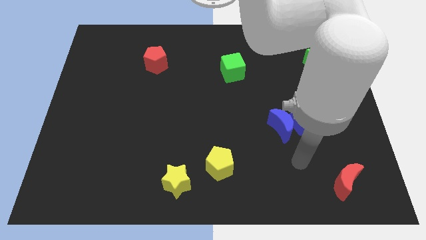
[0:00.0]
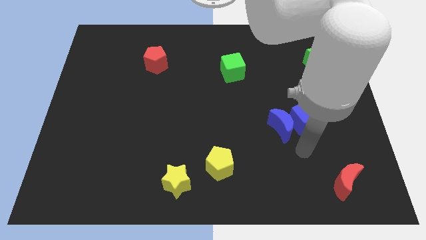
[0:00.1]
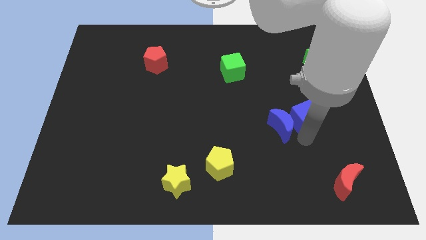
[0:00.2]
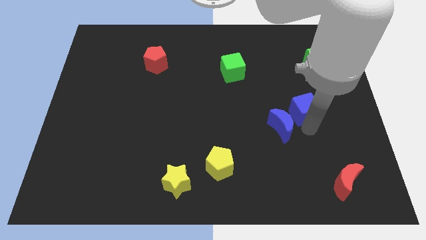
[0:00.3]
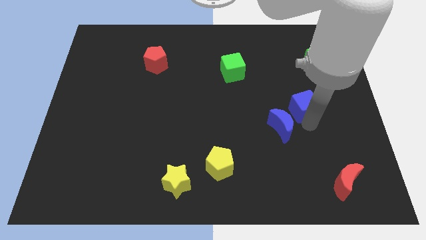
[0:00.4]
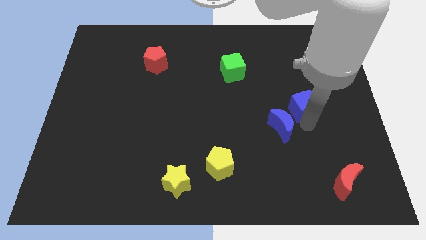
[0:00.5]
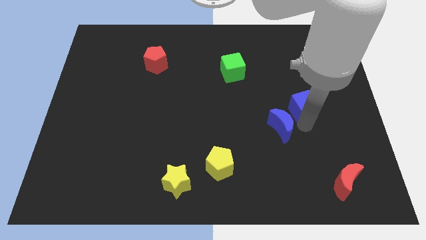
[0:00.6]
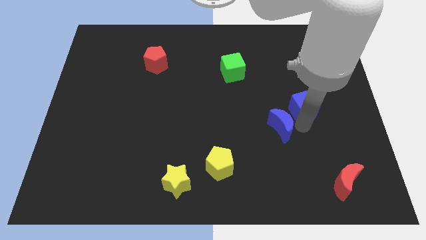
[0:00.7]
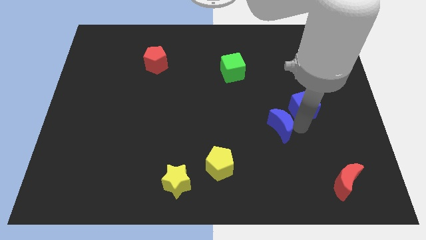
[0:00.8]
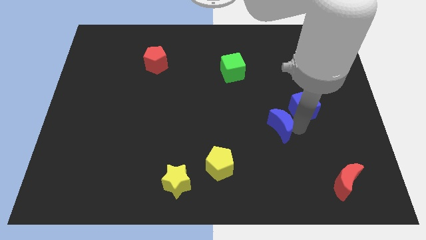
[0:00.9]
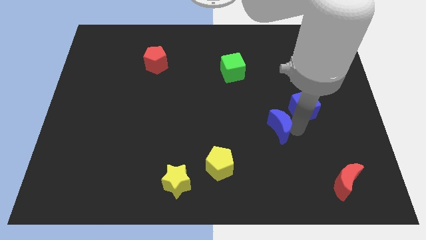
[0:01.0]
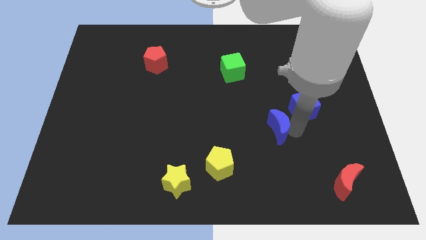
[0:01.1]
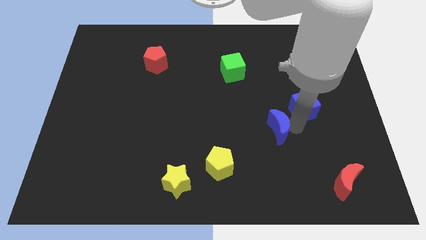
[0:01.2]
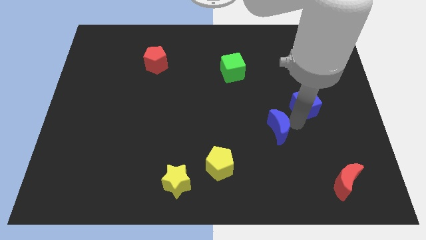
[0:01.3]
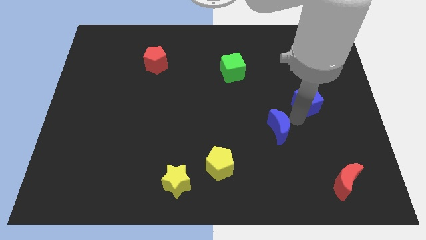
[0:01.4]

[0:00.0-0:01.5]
pull the blue moon apart from the blue cube

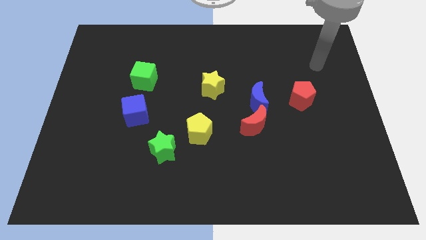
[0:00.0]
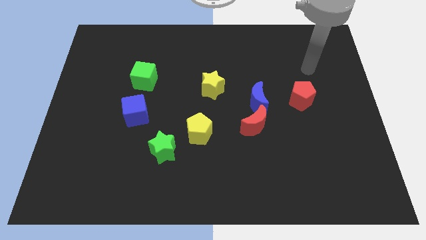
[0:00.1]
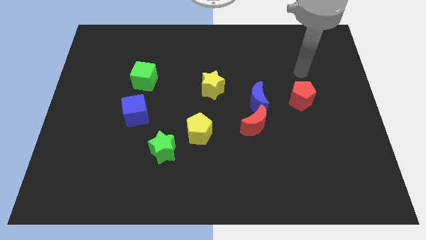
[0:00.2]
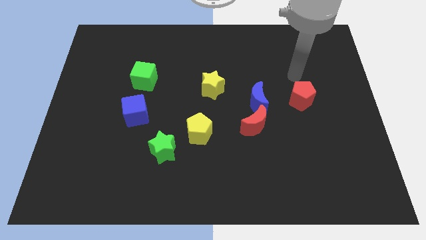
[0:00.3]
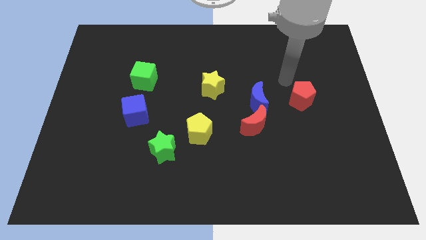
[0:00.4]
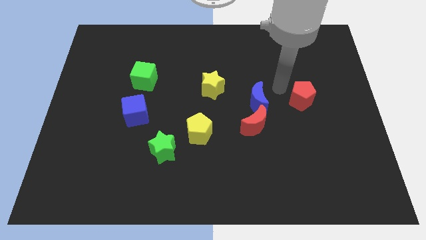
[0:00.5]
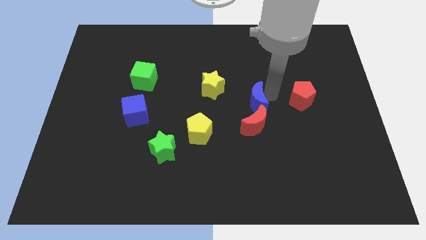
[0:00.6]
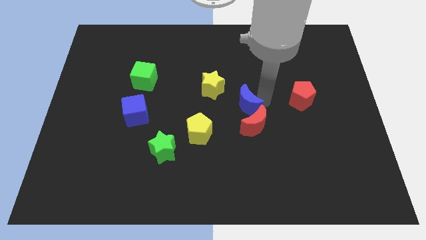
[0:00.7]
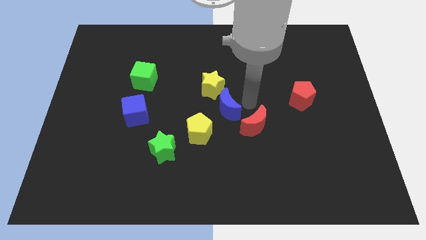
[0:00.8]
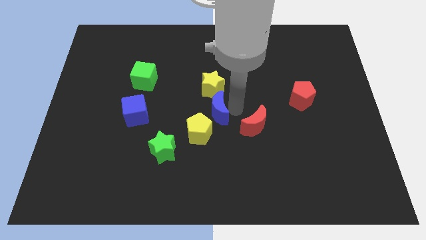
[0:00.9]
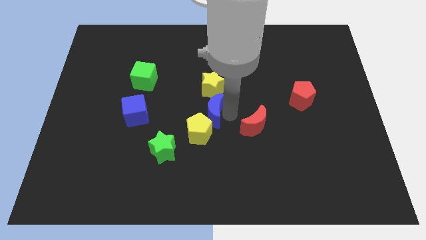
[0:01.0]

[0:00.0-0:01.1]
move the red moon away from the blue moon

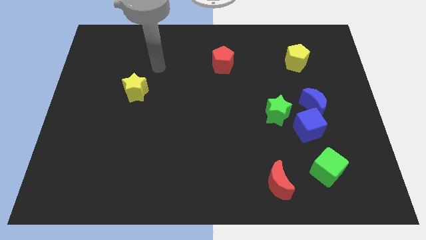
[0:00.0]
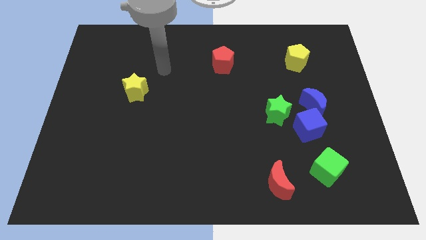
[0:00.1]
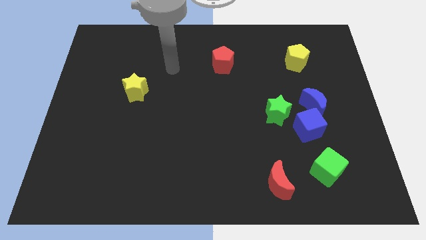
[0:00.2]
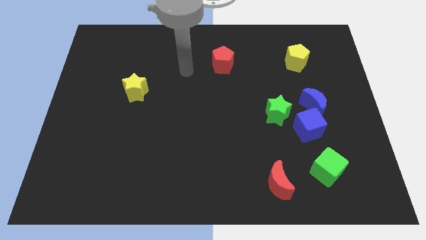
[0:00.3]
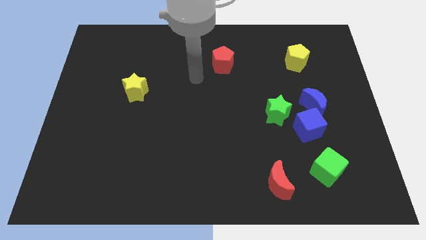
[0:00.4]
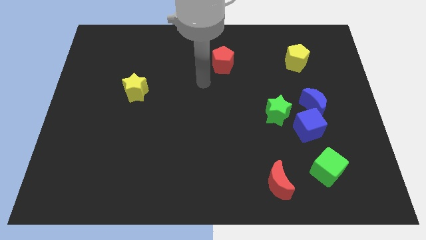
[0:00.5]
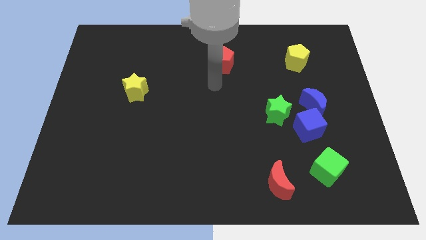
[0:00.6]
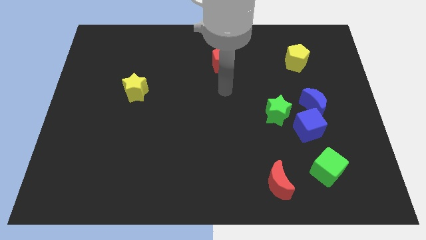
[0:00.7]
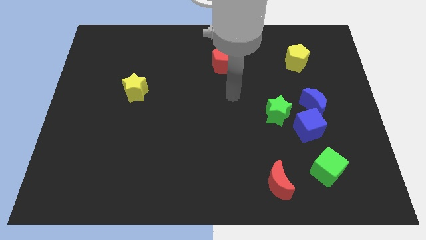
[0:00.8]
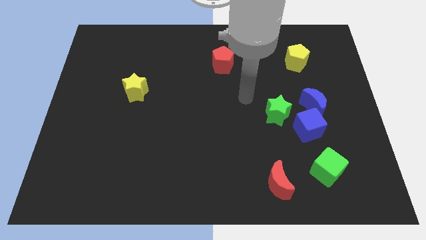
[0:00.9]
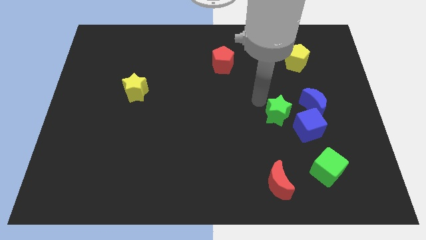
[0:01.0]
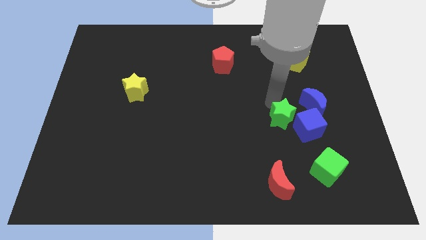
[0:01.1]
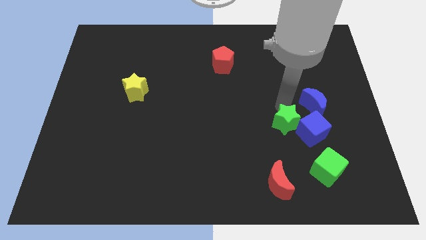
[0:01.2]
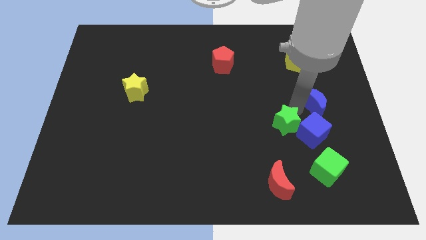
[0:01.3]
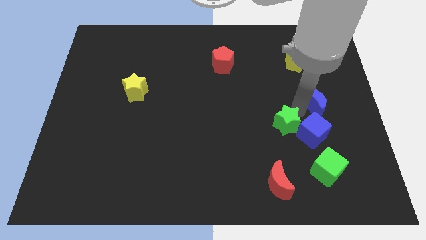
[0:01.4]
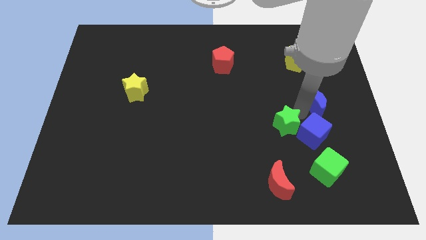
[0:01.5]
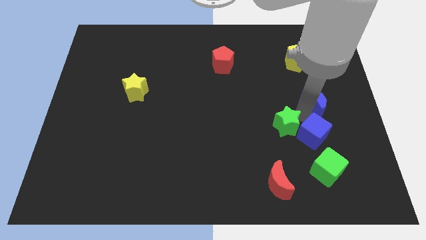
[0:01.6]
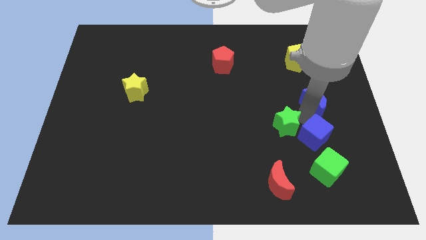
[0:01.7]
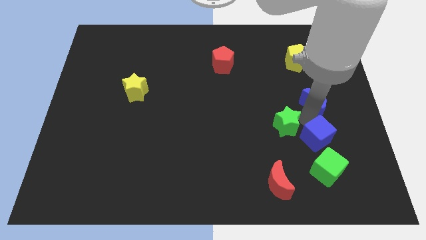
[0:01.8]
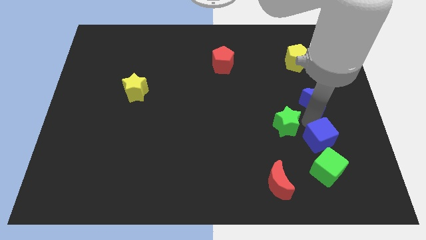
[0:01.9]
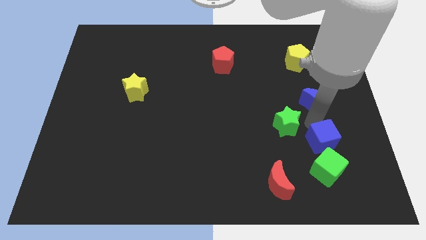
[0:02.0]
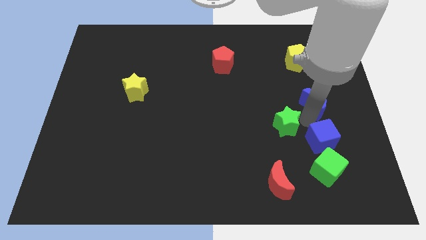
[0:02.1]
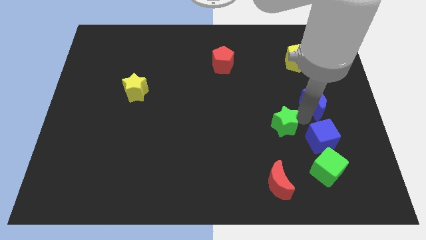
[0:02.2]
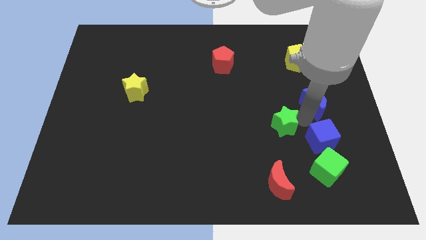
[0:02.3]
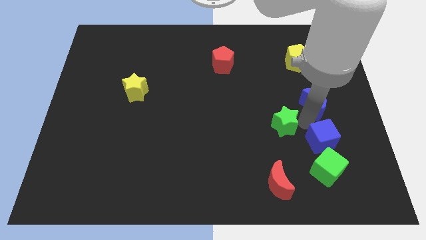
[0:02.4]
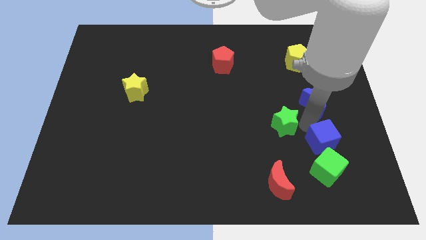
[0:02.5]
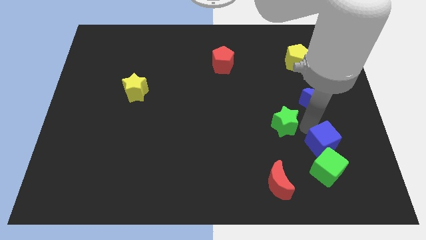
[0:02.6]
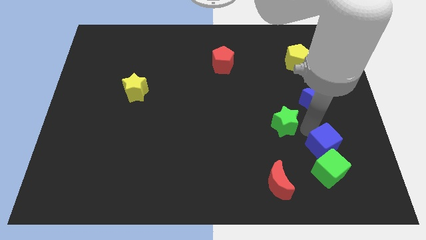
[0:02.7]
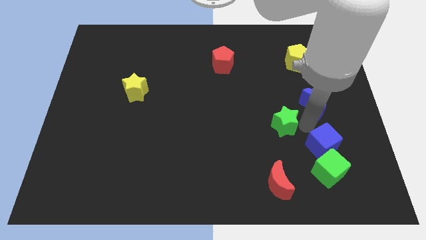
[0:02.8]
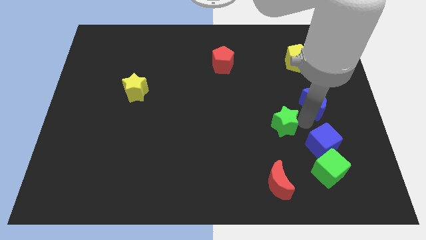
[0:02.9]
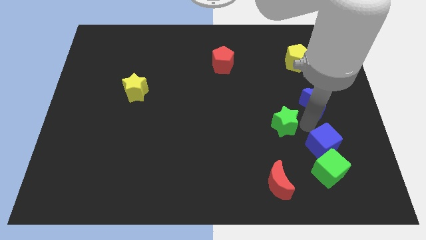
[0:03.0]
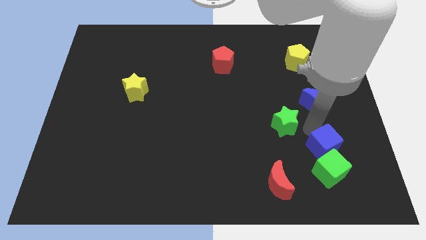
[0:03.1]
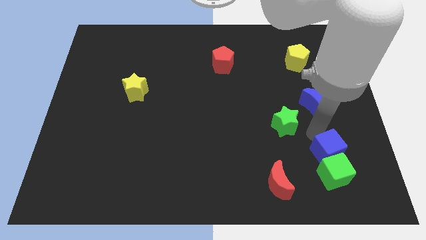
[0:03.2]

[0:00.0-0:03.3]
move the blue cube away from the blue moon and green star

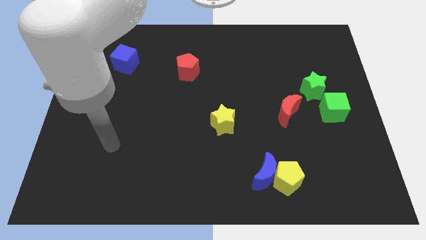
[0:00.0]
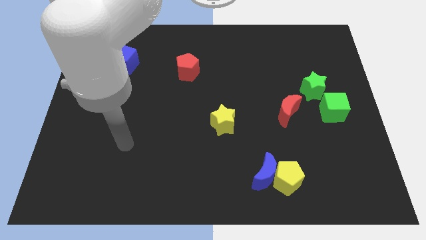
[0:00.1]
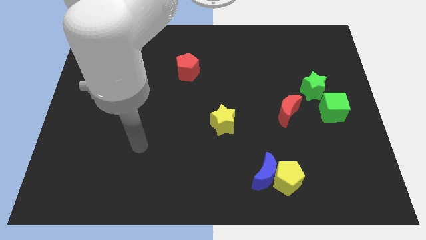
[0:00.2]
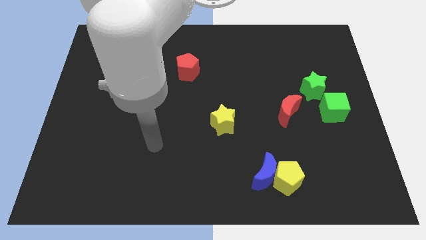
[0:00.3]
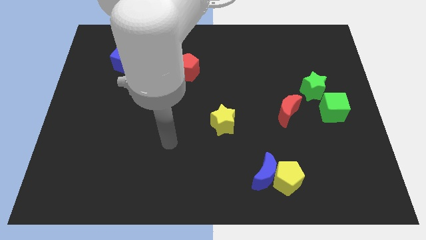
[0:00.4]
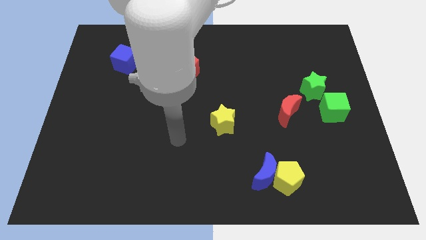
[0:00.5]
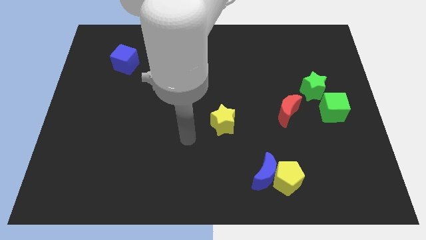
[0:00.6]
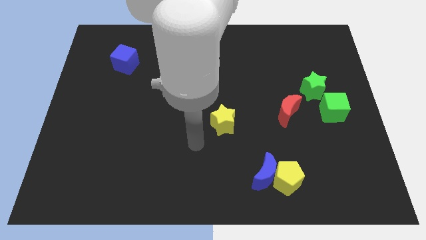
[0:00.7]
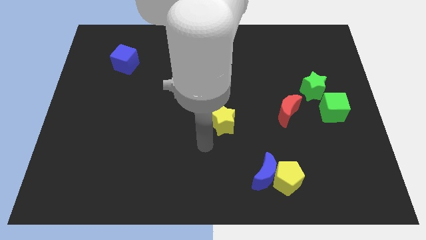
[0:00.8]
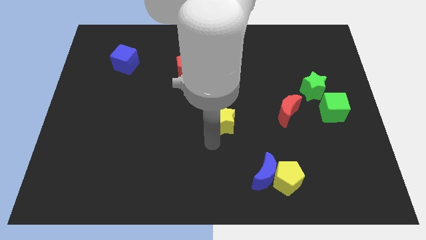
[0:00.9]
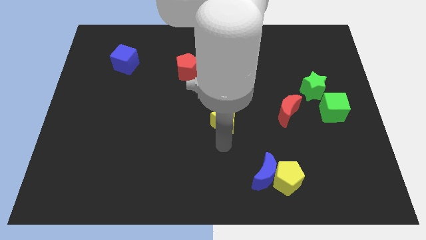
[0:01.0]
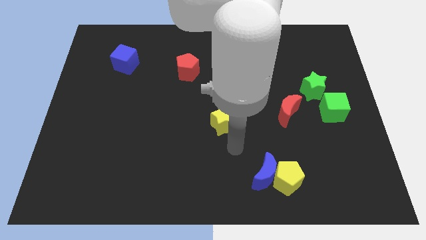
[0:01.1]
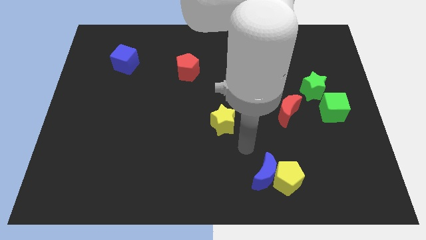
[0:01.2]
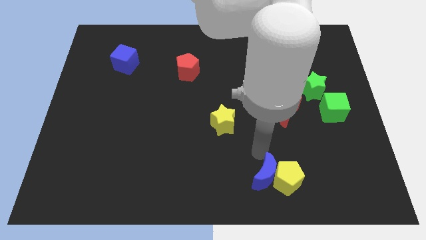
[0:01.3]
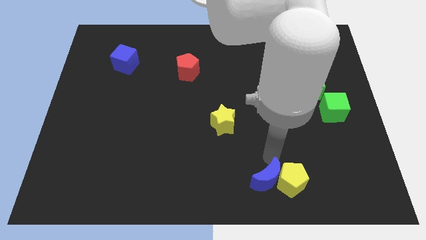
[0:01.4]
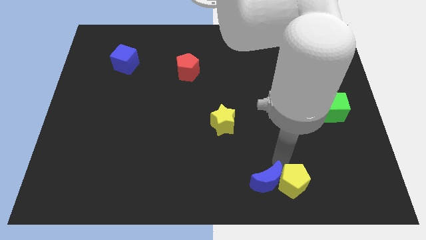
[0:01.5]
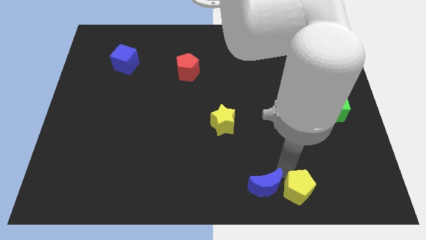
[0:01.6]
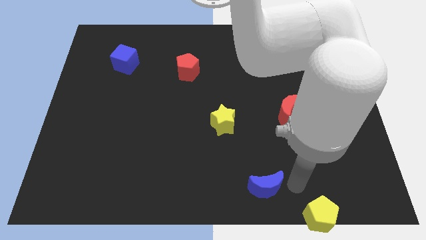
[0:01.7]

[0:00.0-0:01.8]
pull the blue moon apart from the yellow pentagon

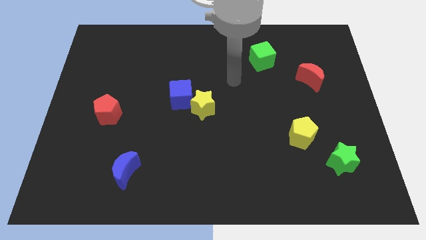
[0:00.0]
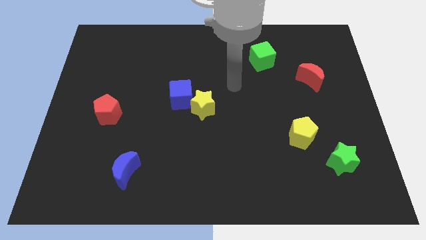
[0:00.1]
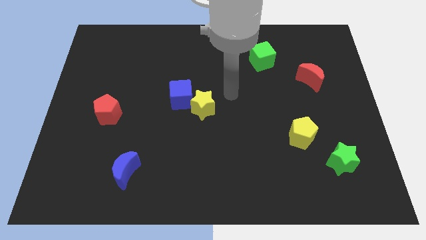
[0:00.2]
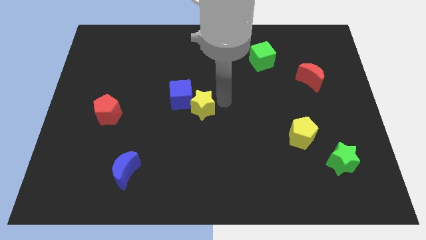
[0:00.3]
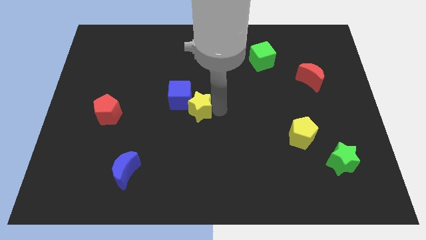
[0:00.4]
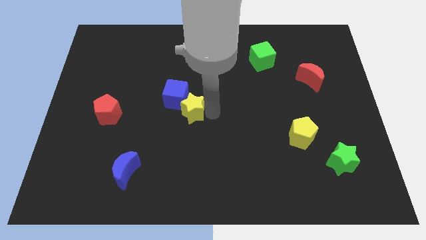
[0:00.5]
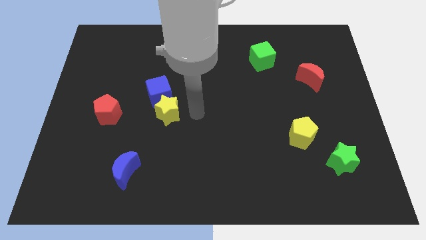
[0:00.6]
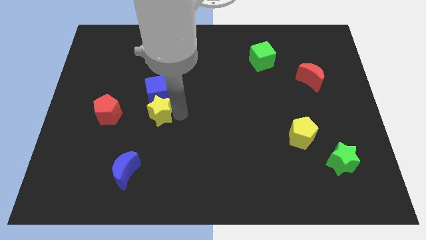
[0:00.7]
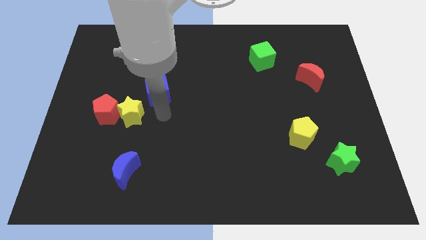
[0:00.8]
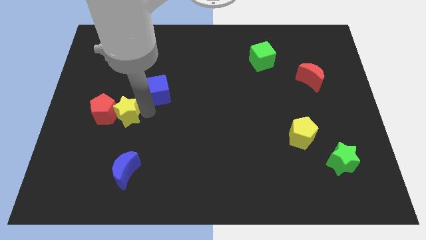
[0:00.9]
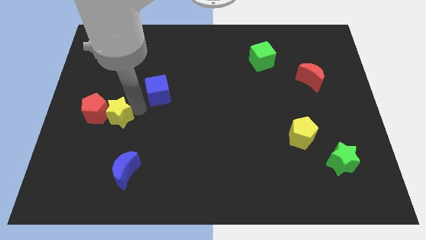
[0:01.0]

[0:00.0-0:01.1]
move the blue cube away from the yellow star

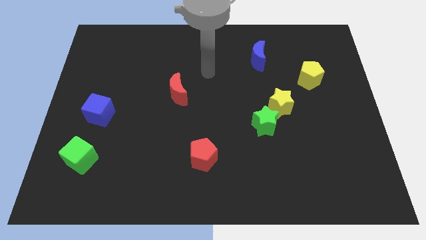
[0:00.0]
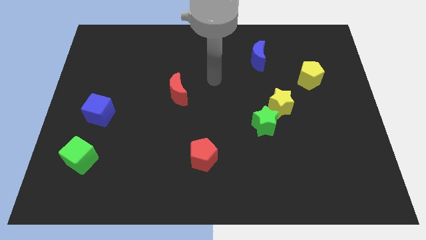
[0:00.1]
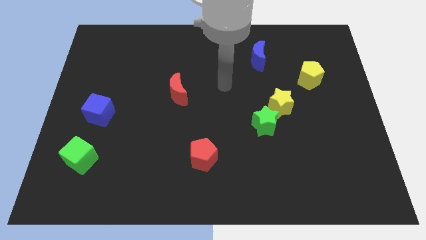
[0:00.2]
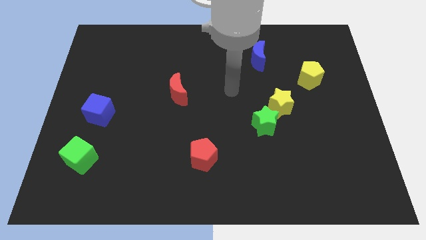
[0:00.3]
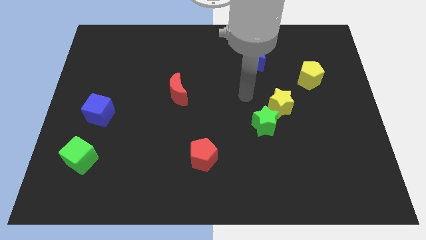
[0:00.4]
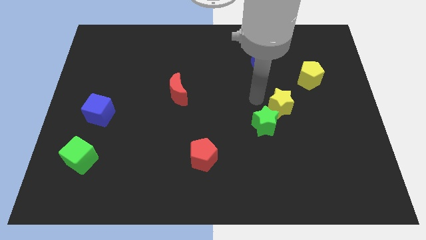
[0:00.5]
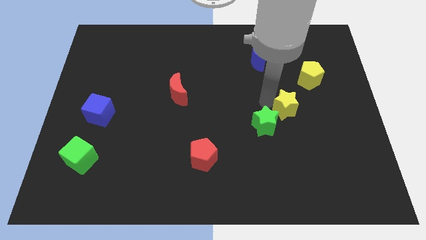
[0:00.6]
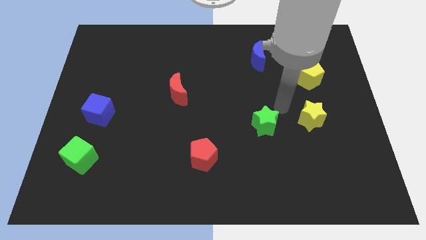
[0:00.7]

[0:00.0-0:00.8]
separate the green star from the yellow star
